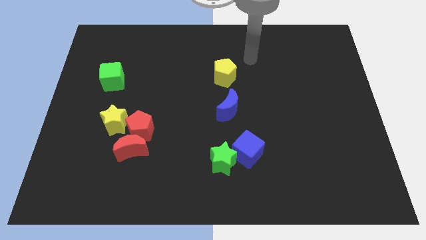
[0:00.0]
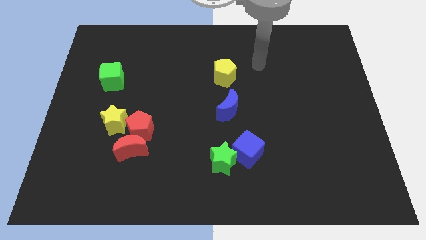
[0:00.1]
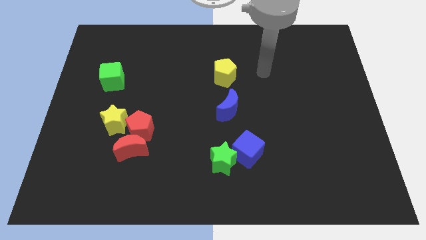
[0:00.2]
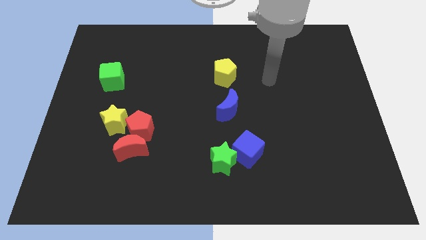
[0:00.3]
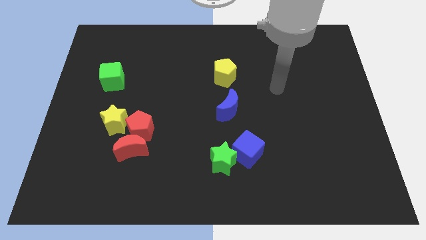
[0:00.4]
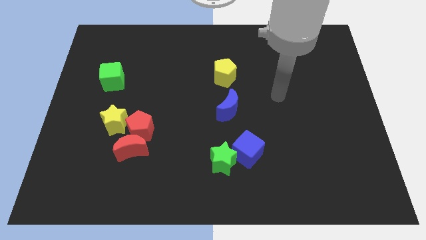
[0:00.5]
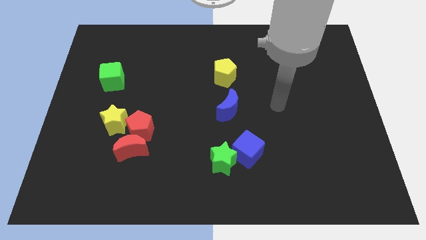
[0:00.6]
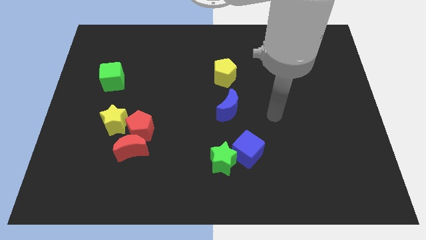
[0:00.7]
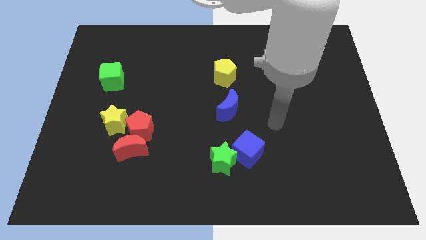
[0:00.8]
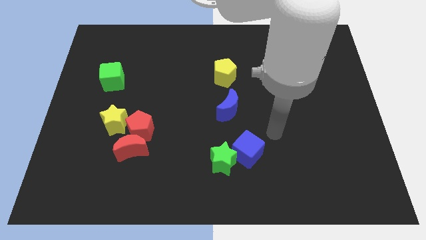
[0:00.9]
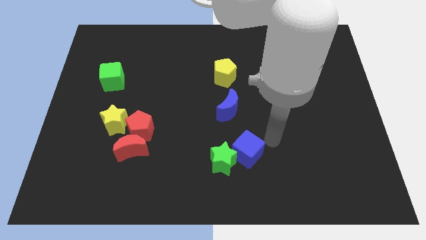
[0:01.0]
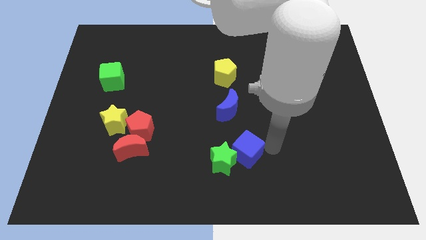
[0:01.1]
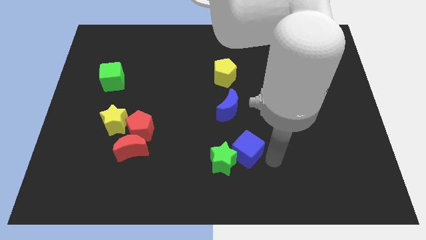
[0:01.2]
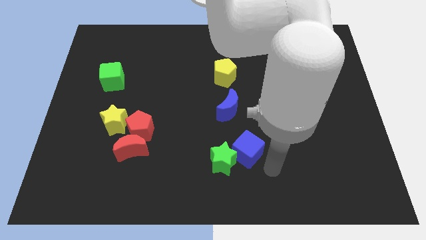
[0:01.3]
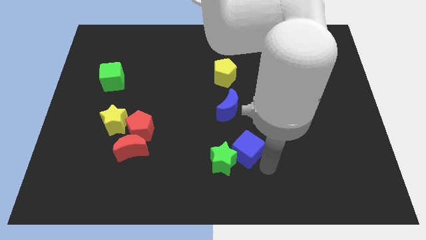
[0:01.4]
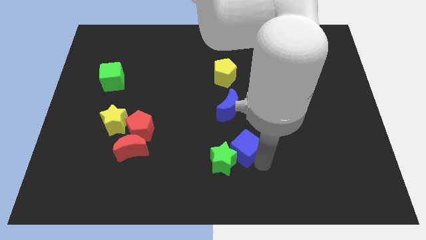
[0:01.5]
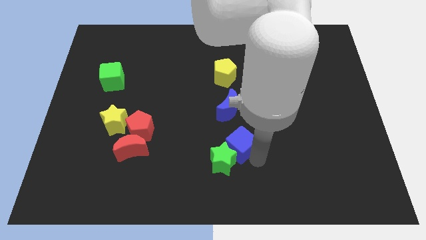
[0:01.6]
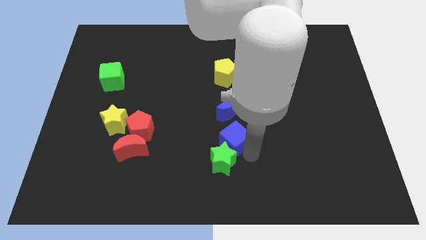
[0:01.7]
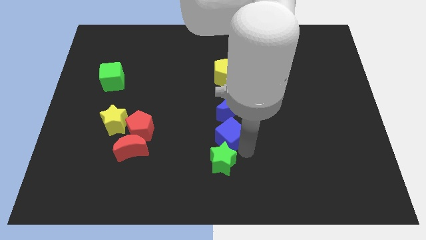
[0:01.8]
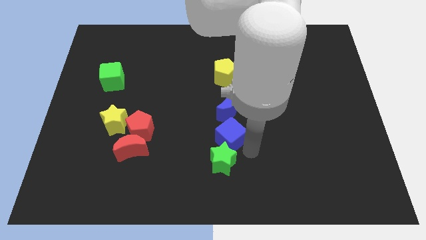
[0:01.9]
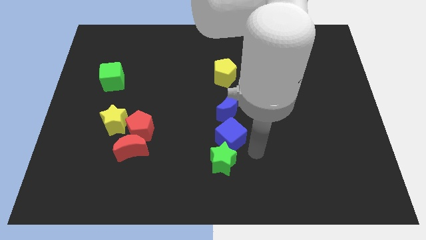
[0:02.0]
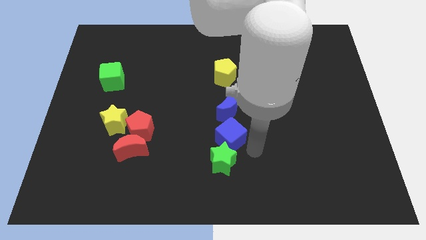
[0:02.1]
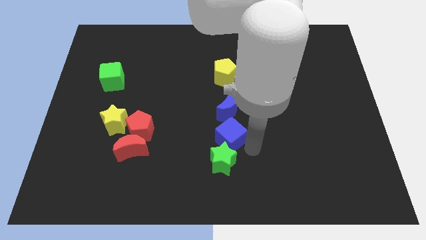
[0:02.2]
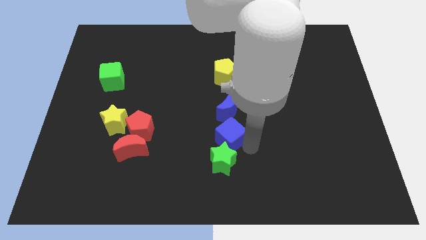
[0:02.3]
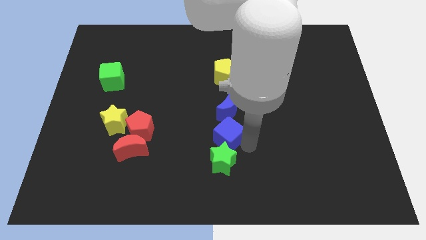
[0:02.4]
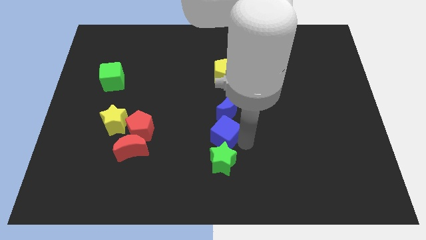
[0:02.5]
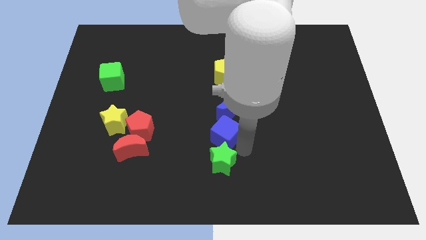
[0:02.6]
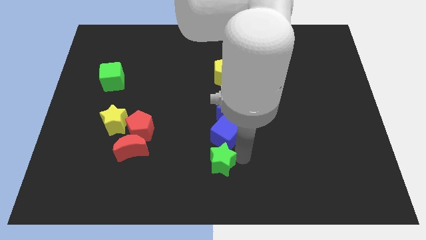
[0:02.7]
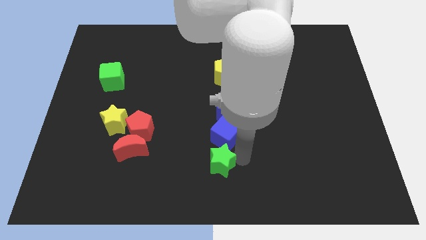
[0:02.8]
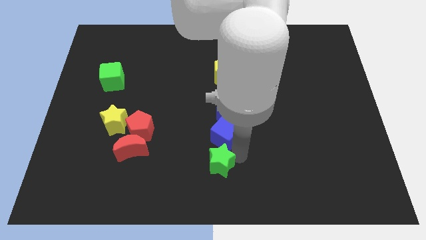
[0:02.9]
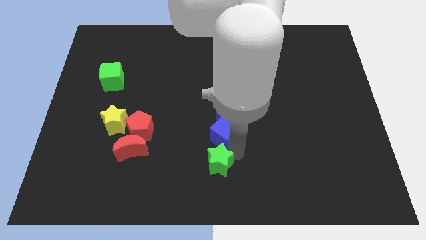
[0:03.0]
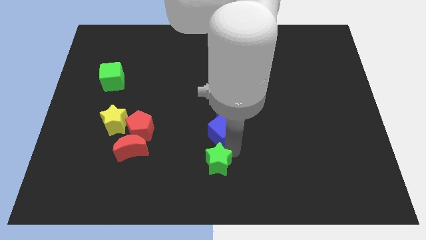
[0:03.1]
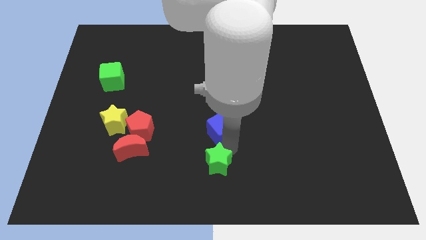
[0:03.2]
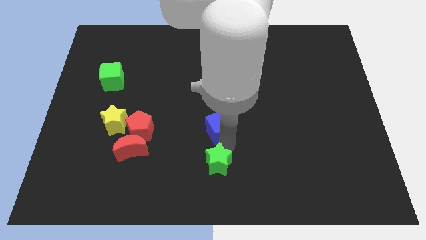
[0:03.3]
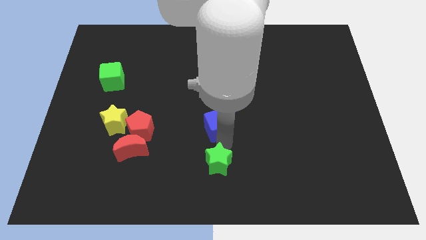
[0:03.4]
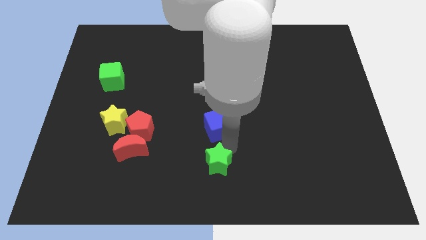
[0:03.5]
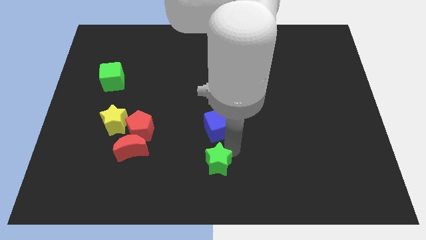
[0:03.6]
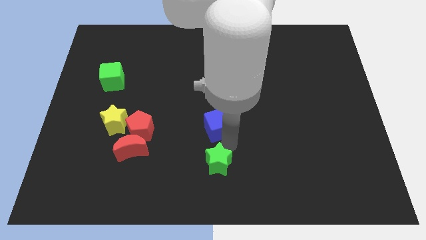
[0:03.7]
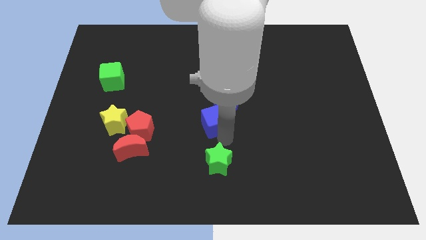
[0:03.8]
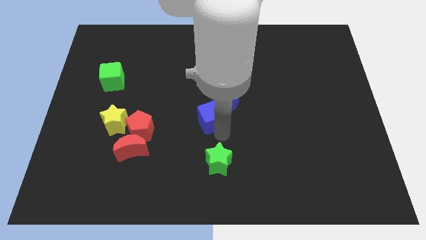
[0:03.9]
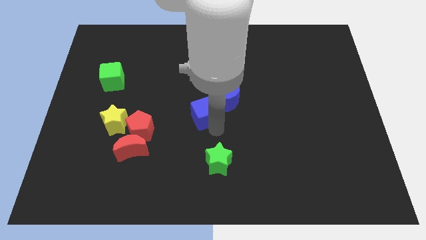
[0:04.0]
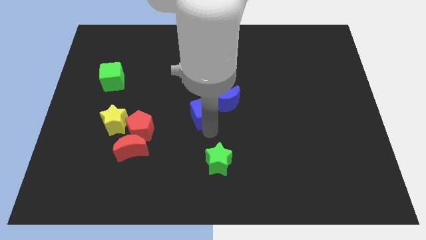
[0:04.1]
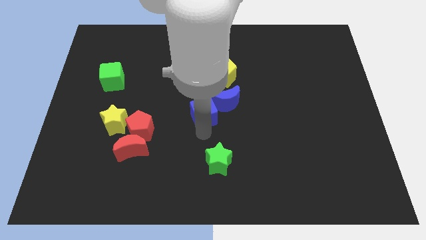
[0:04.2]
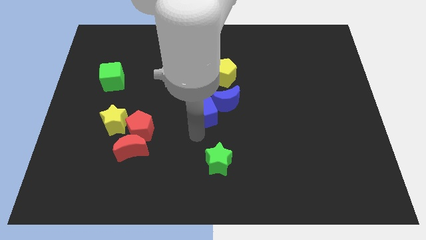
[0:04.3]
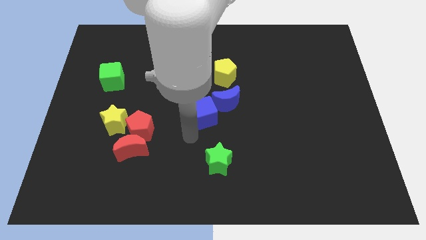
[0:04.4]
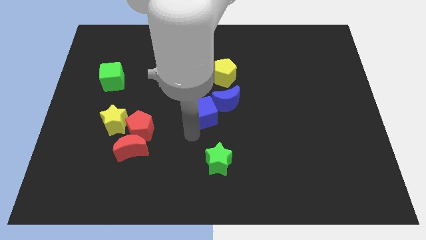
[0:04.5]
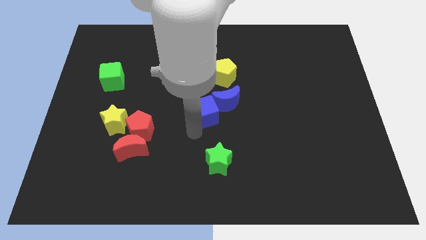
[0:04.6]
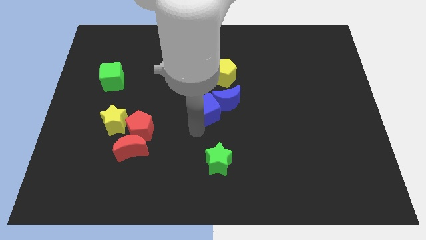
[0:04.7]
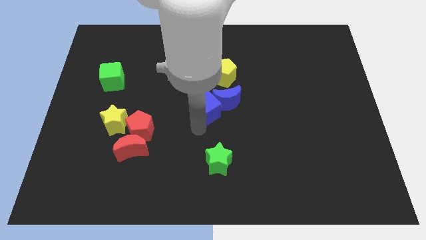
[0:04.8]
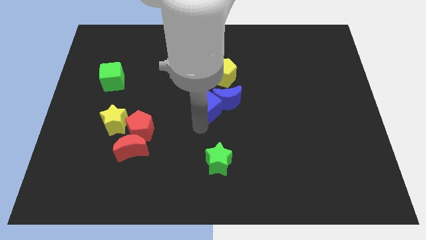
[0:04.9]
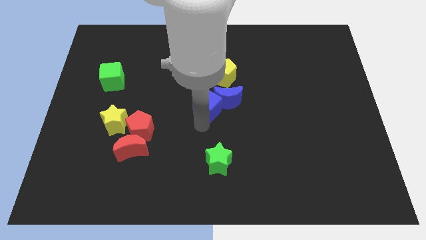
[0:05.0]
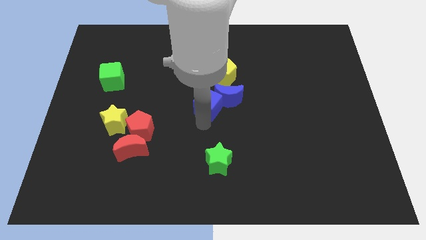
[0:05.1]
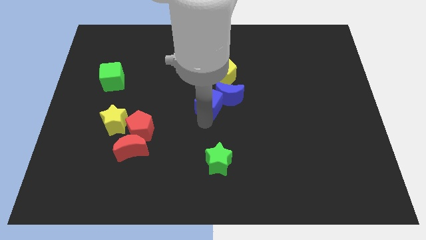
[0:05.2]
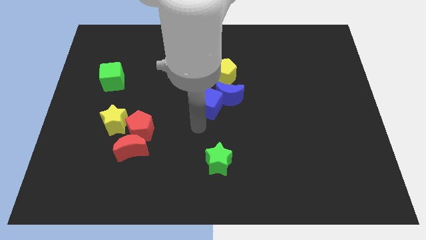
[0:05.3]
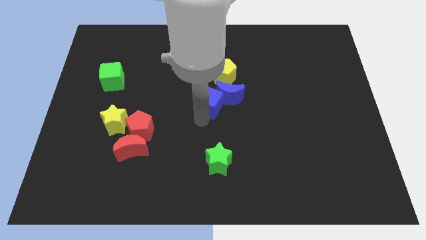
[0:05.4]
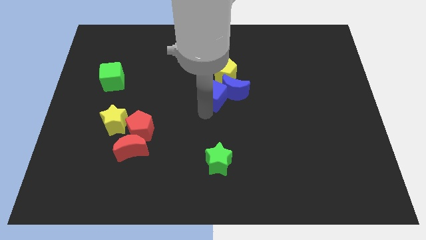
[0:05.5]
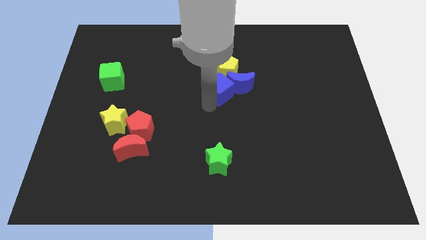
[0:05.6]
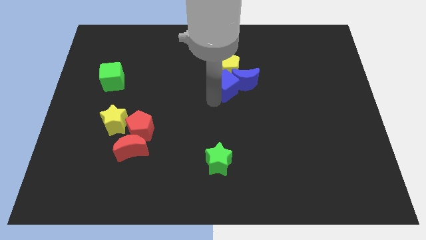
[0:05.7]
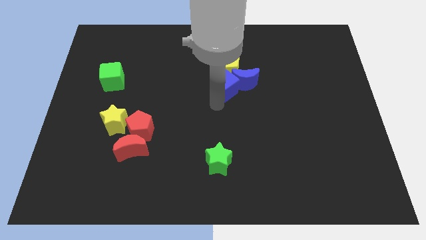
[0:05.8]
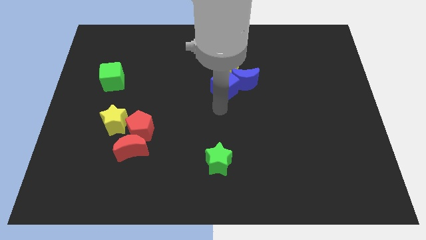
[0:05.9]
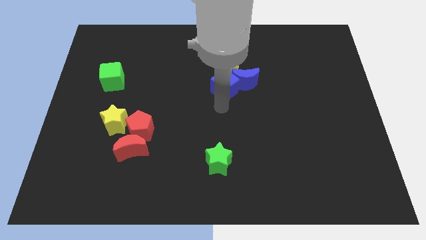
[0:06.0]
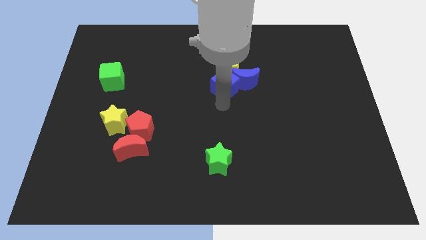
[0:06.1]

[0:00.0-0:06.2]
push the blue cube towards the yellow pentagon

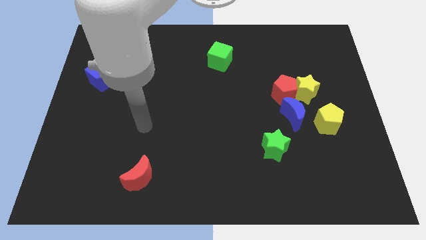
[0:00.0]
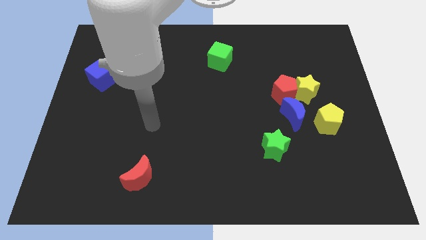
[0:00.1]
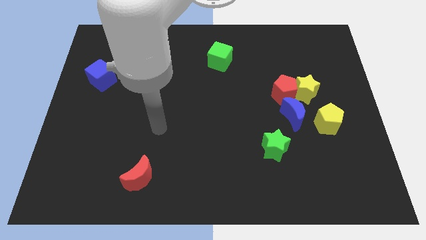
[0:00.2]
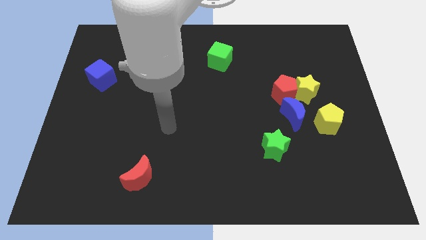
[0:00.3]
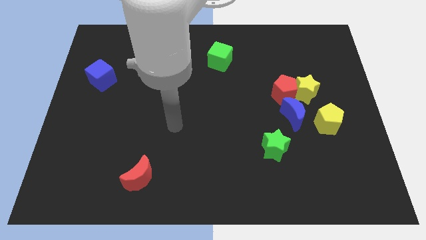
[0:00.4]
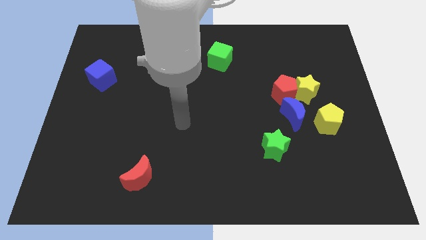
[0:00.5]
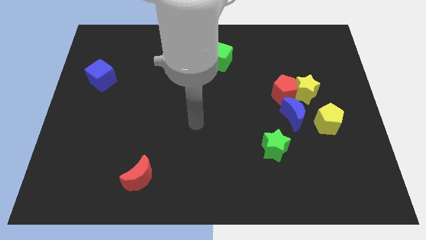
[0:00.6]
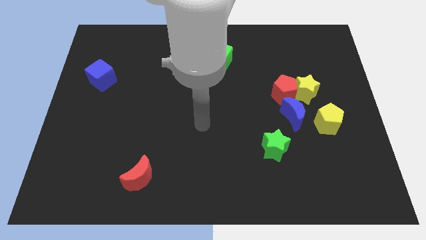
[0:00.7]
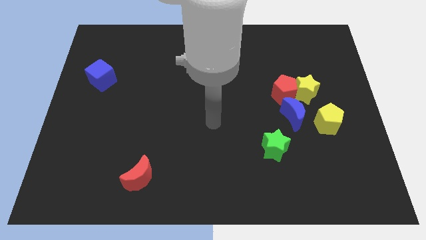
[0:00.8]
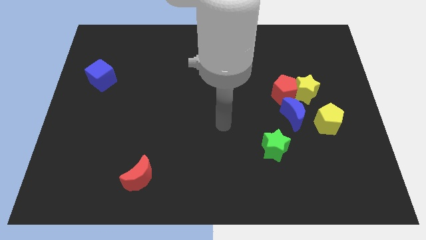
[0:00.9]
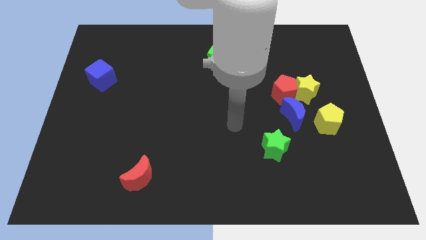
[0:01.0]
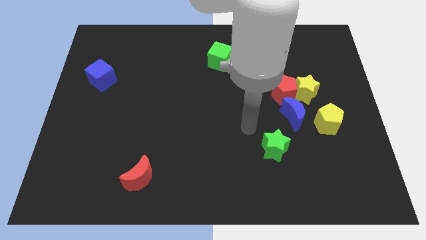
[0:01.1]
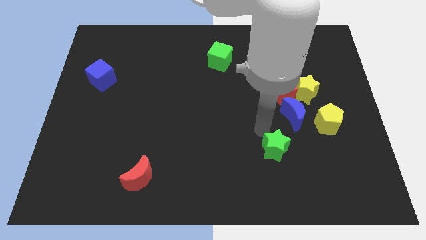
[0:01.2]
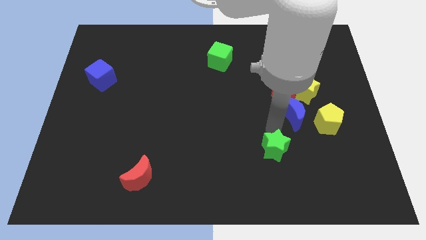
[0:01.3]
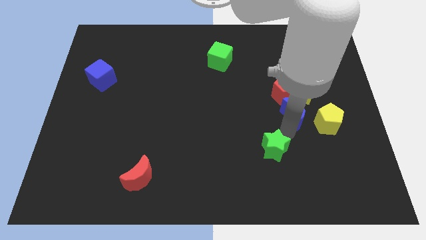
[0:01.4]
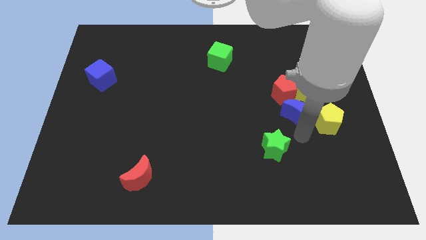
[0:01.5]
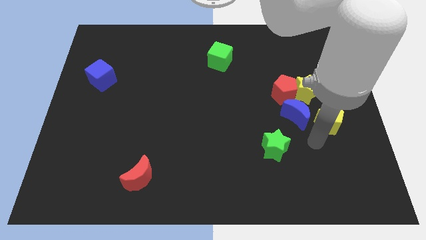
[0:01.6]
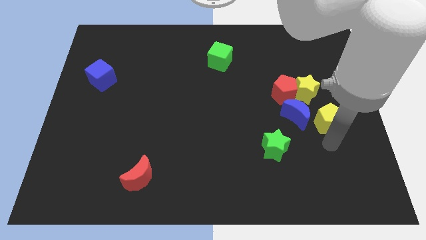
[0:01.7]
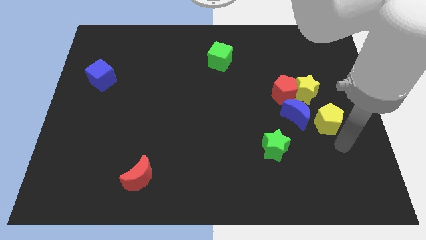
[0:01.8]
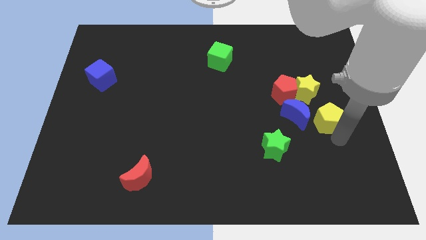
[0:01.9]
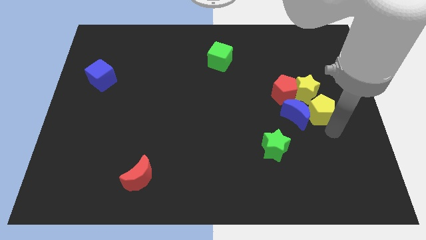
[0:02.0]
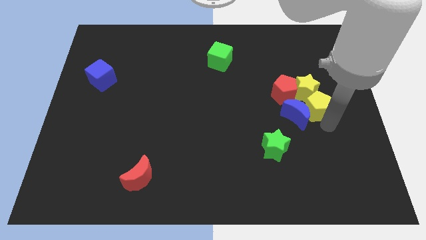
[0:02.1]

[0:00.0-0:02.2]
put the yellow pentagon to the yellow star
